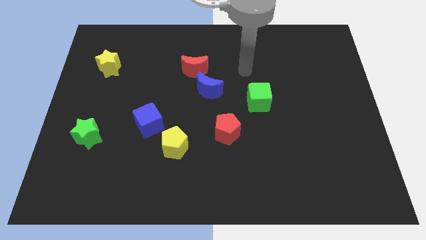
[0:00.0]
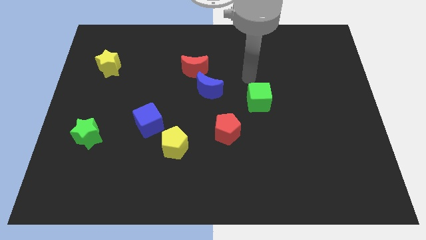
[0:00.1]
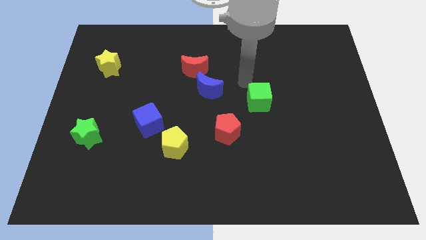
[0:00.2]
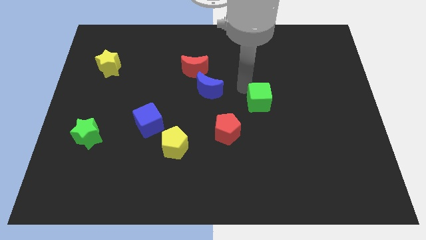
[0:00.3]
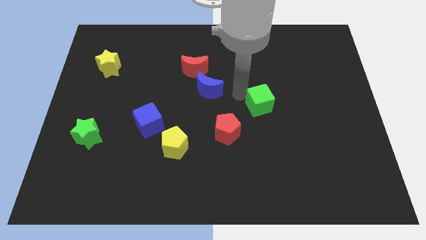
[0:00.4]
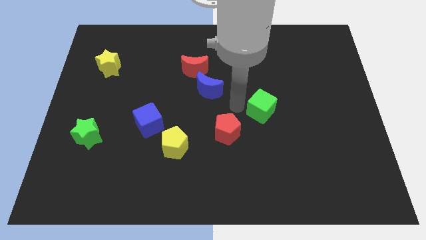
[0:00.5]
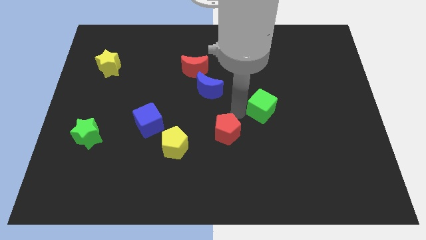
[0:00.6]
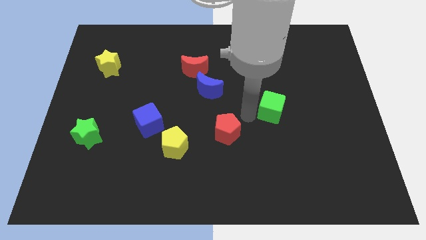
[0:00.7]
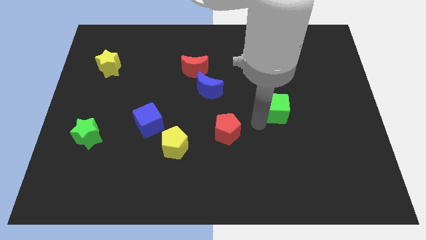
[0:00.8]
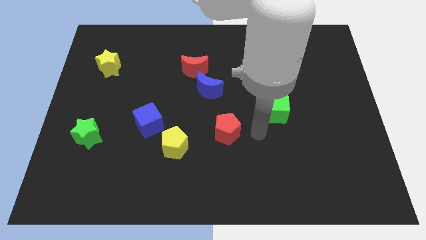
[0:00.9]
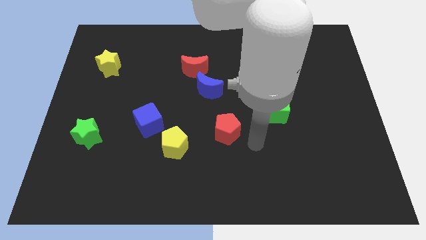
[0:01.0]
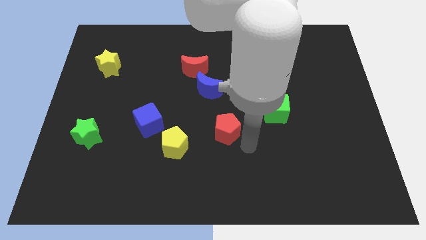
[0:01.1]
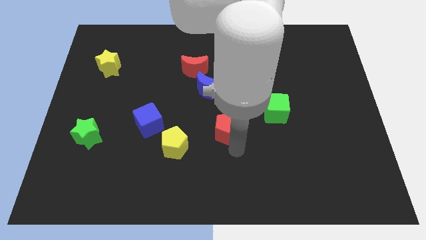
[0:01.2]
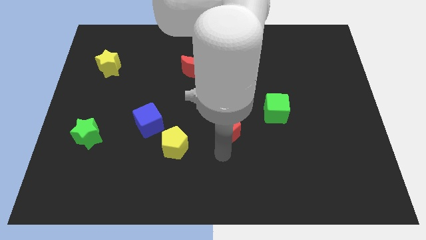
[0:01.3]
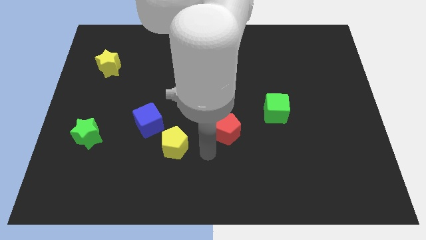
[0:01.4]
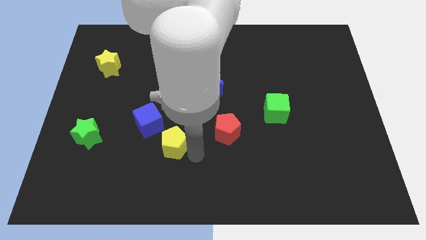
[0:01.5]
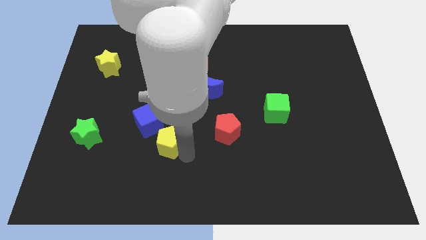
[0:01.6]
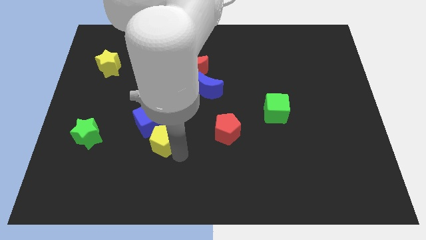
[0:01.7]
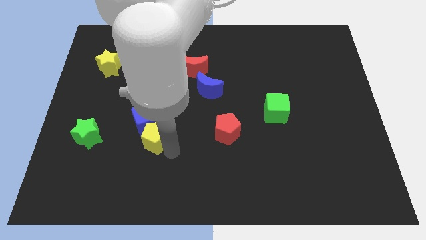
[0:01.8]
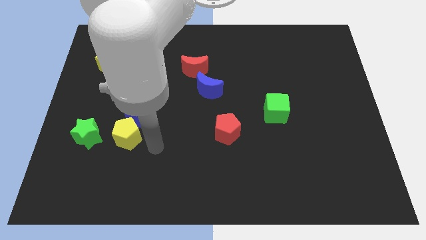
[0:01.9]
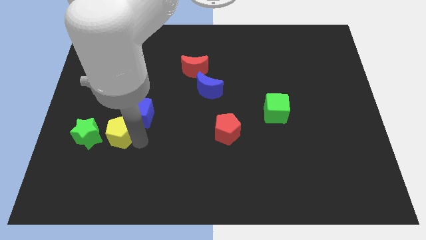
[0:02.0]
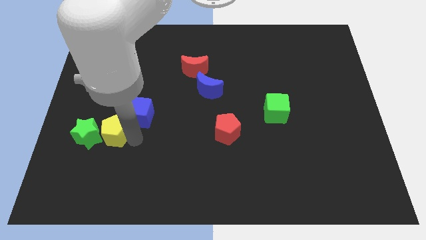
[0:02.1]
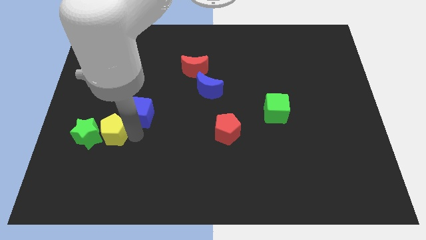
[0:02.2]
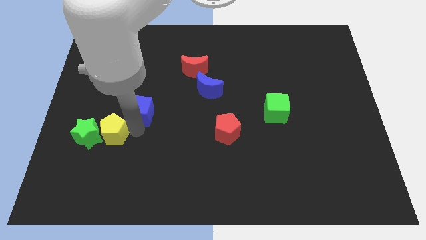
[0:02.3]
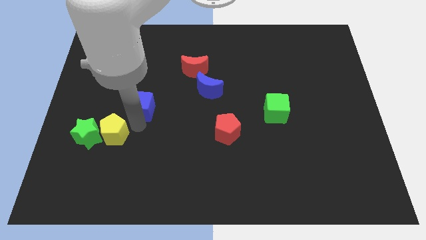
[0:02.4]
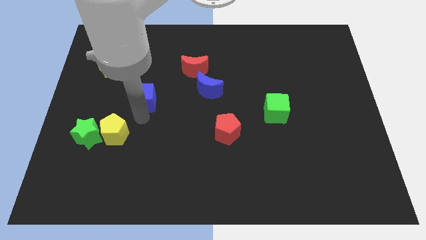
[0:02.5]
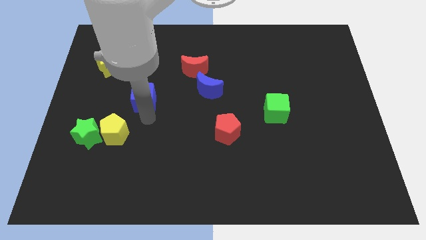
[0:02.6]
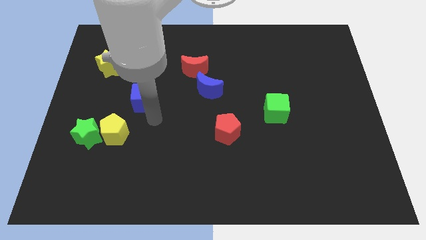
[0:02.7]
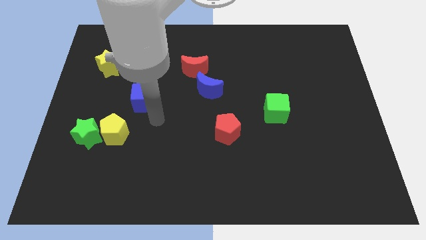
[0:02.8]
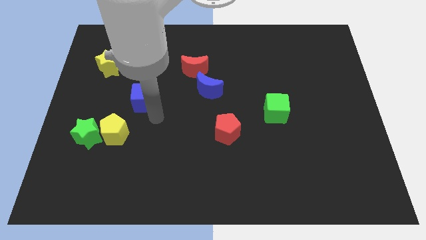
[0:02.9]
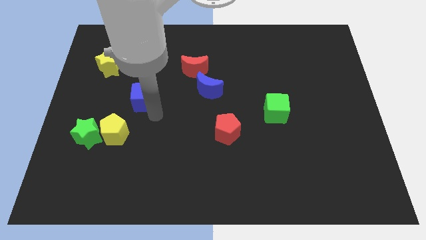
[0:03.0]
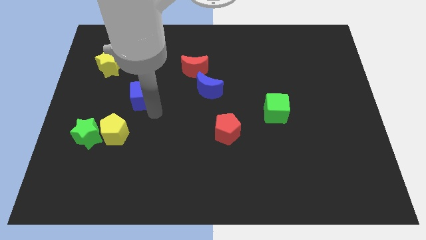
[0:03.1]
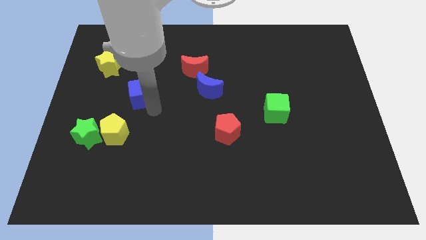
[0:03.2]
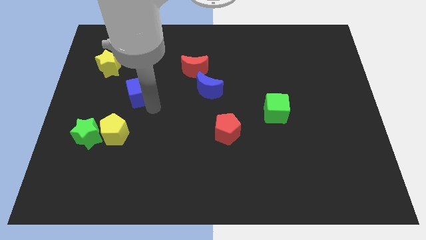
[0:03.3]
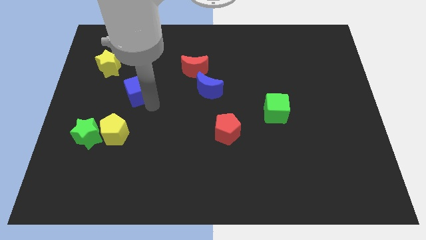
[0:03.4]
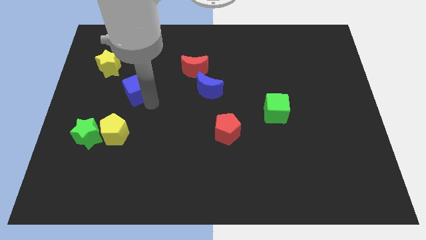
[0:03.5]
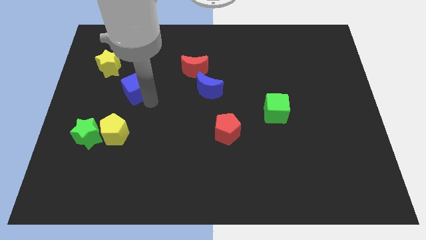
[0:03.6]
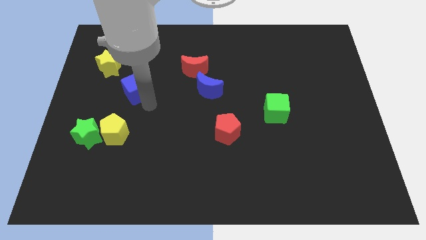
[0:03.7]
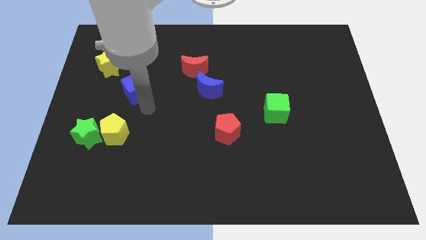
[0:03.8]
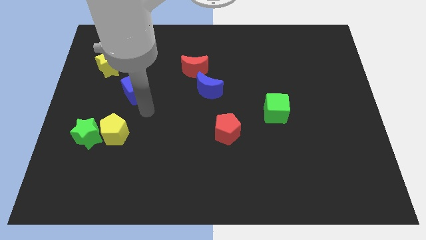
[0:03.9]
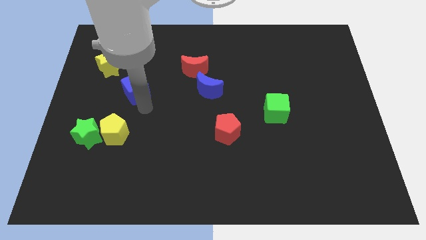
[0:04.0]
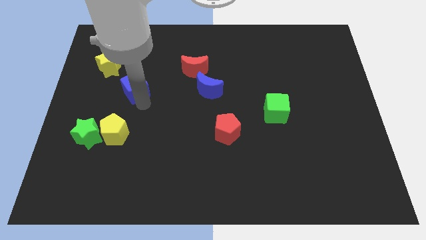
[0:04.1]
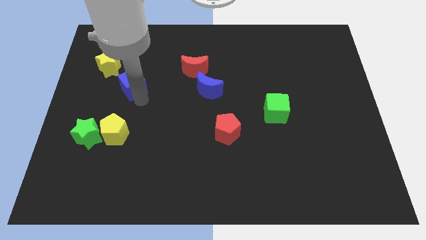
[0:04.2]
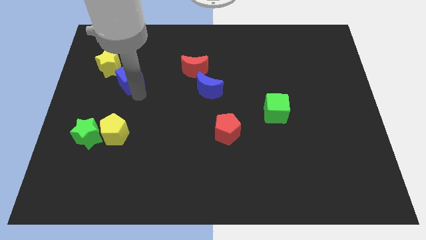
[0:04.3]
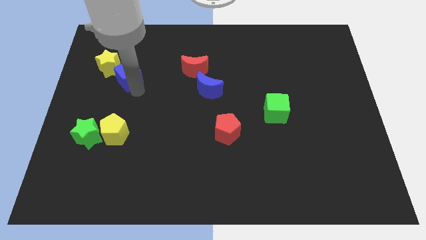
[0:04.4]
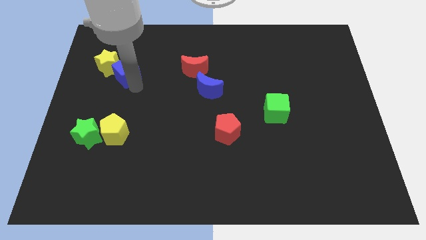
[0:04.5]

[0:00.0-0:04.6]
push the blue cube next to the yellow star

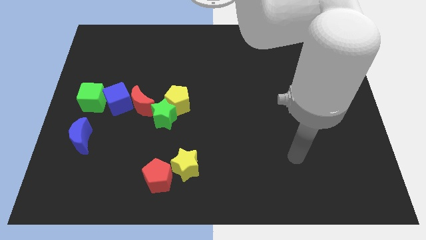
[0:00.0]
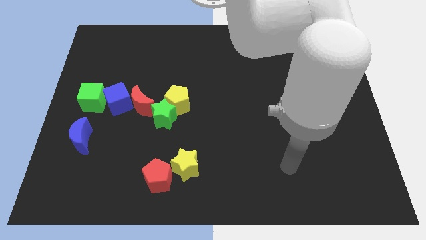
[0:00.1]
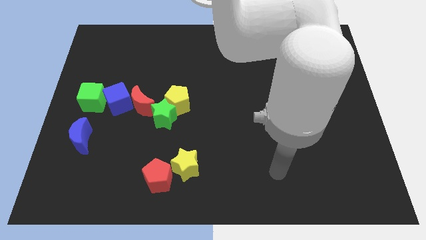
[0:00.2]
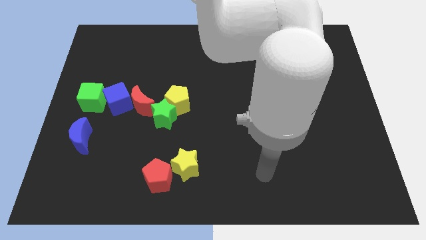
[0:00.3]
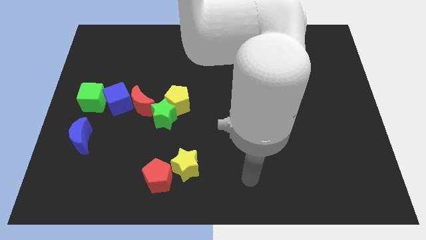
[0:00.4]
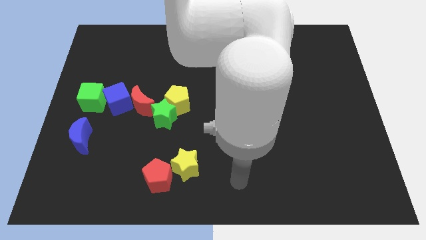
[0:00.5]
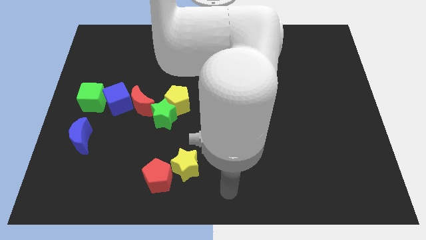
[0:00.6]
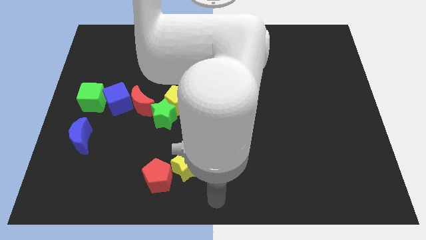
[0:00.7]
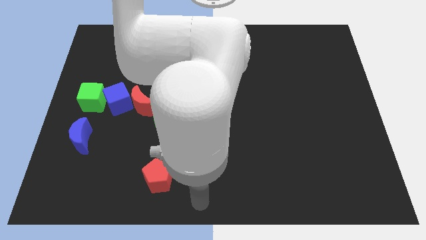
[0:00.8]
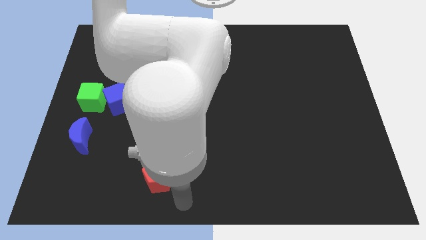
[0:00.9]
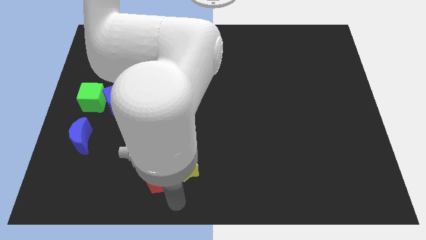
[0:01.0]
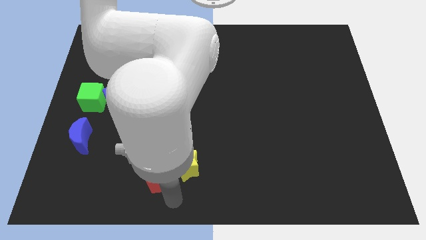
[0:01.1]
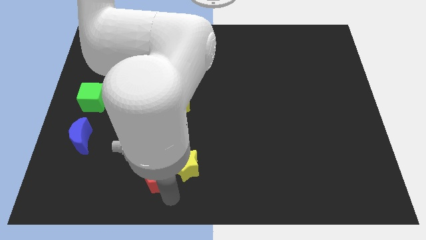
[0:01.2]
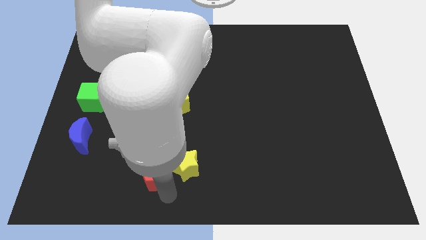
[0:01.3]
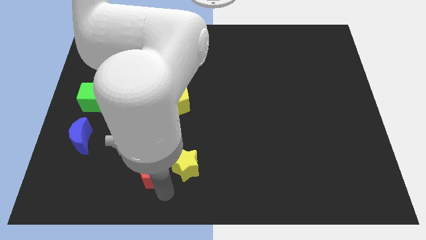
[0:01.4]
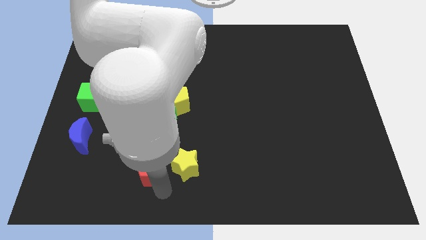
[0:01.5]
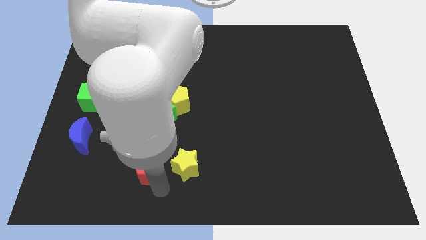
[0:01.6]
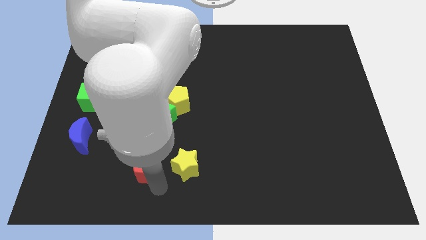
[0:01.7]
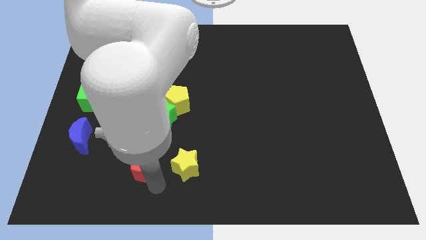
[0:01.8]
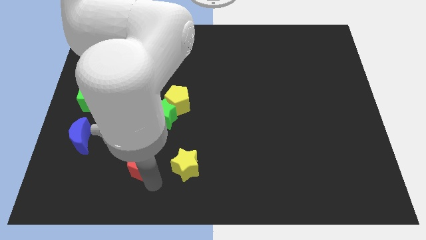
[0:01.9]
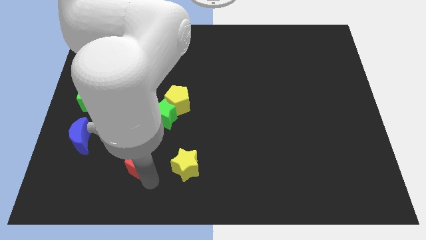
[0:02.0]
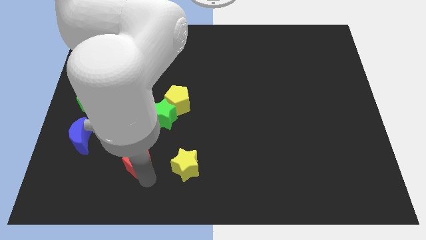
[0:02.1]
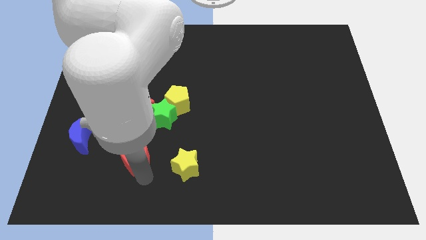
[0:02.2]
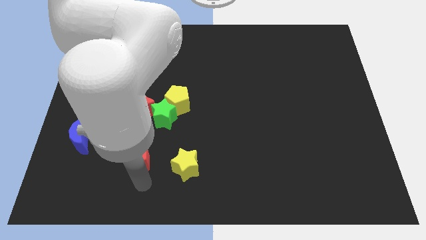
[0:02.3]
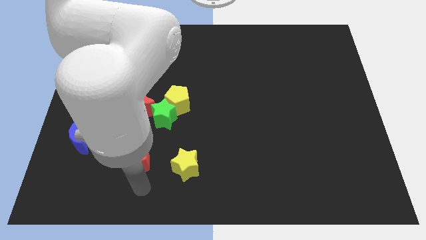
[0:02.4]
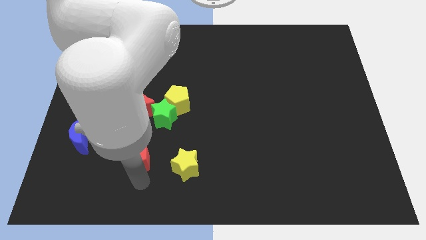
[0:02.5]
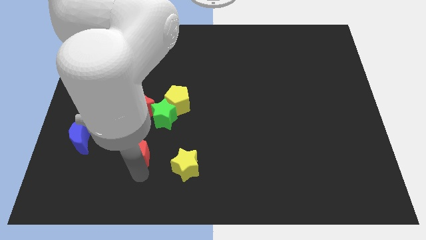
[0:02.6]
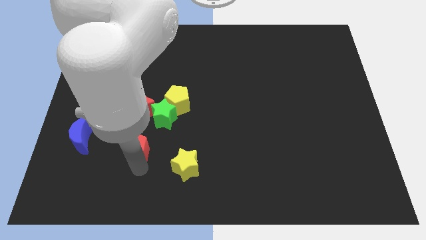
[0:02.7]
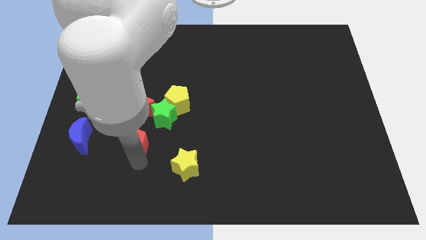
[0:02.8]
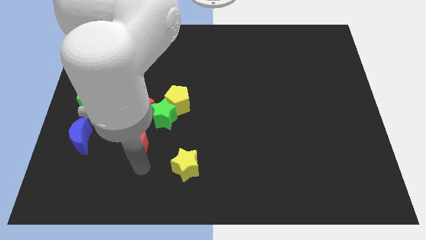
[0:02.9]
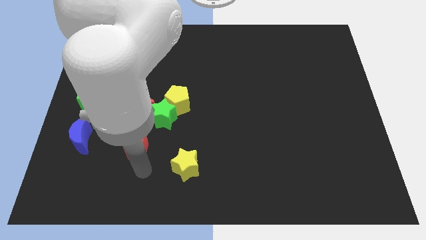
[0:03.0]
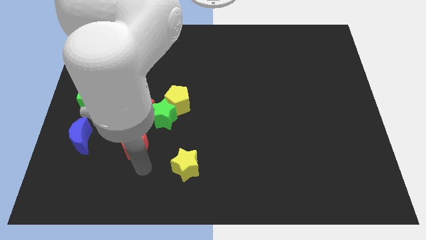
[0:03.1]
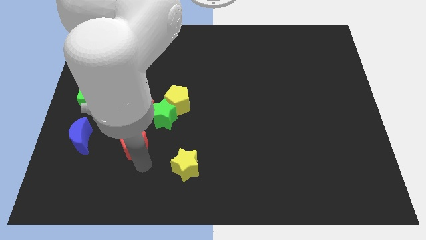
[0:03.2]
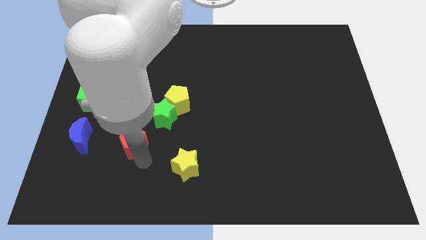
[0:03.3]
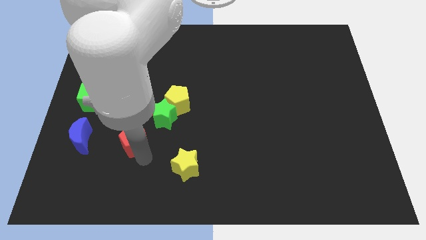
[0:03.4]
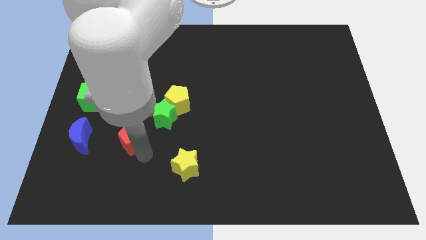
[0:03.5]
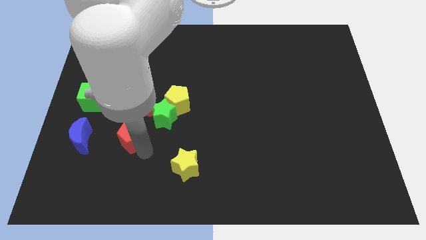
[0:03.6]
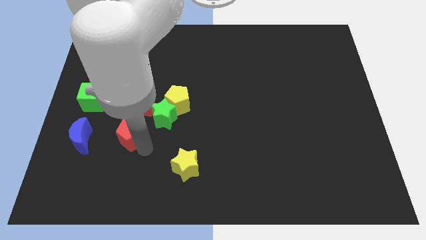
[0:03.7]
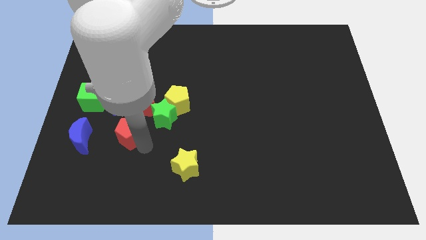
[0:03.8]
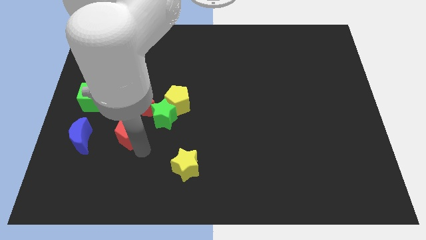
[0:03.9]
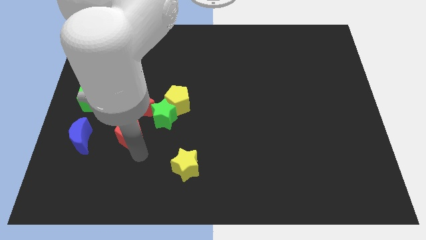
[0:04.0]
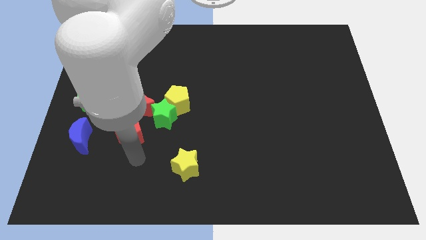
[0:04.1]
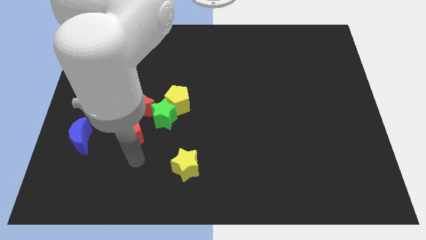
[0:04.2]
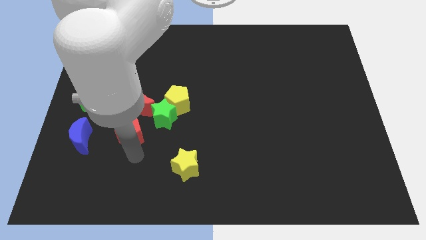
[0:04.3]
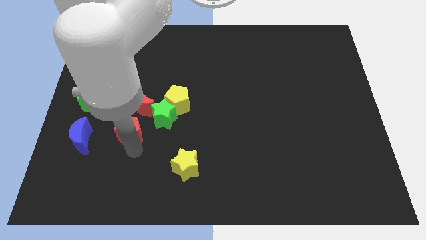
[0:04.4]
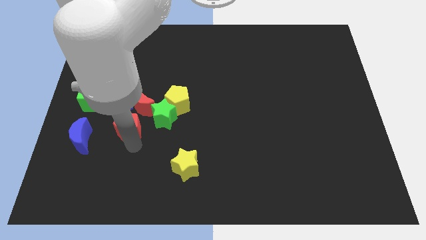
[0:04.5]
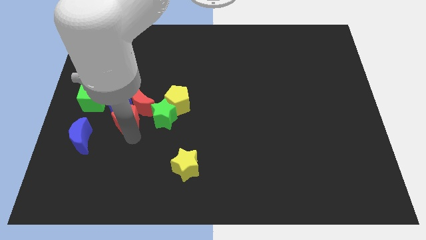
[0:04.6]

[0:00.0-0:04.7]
slide the red pentagon next to the blue cube
